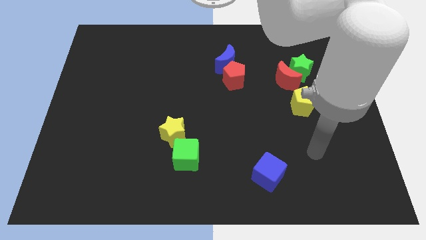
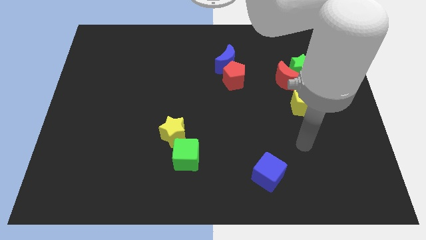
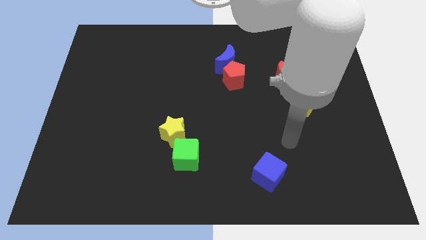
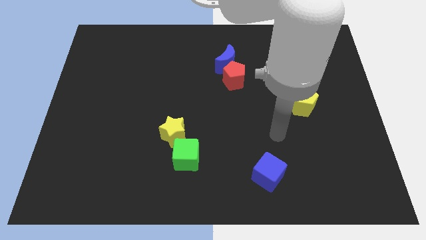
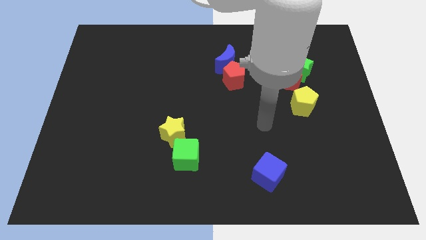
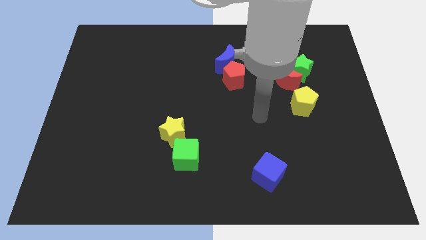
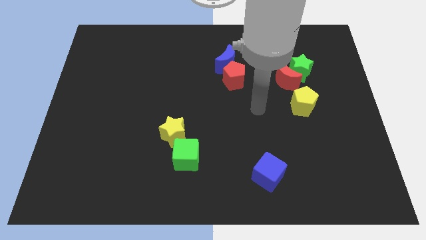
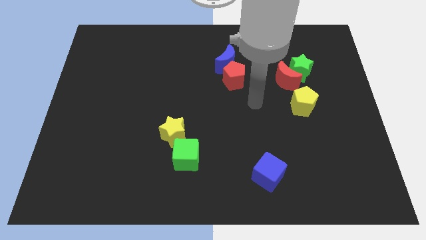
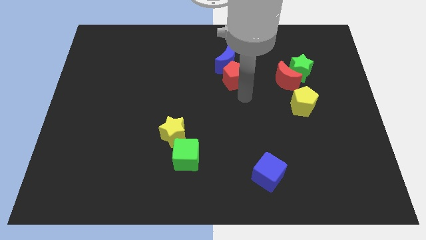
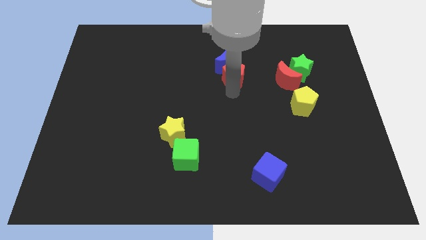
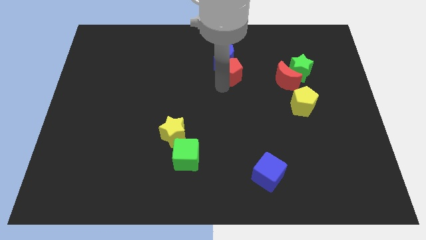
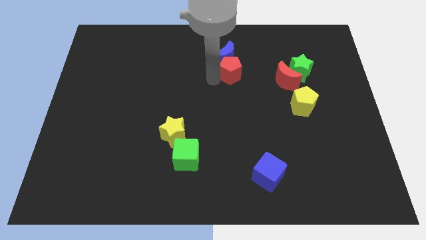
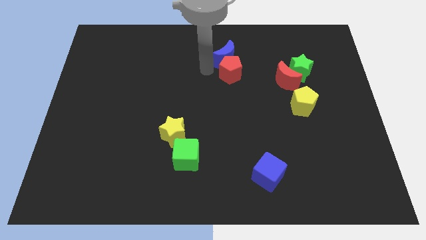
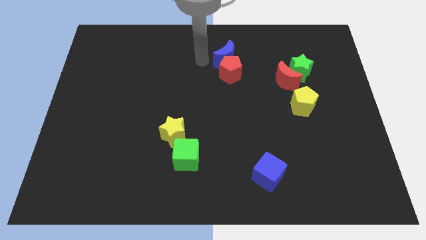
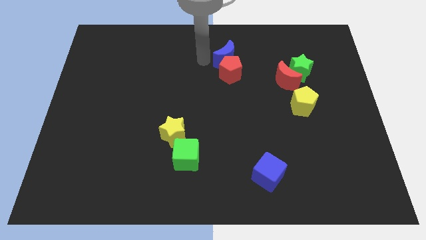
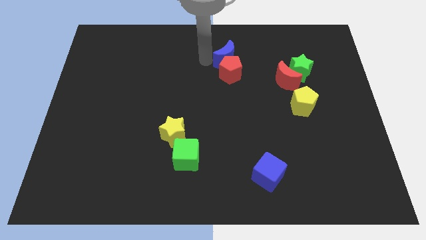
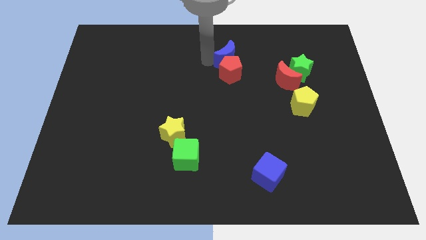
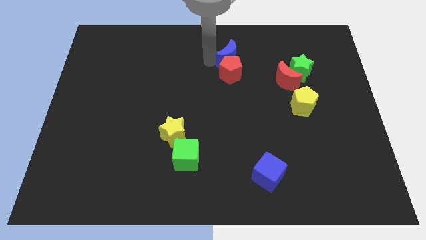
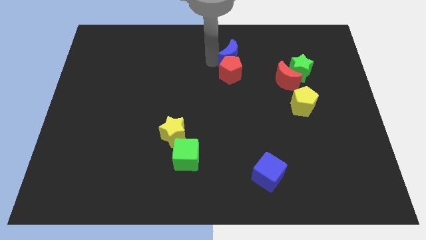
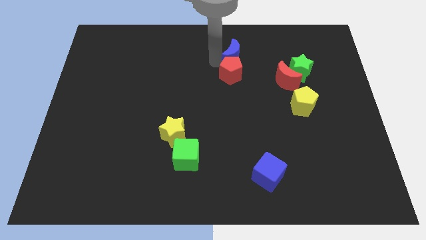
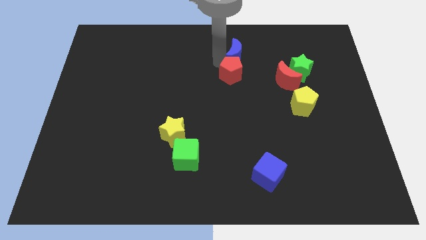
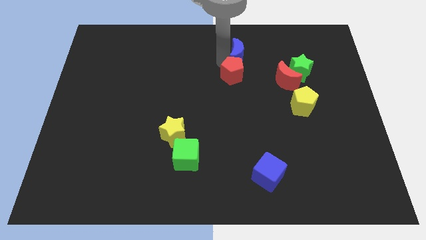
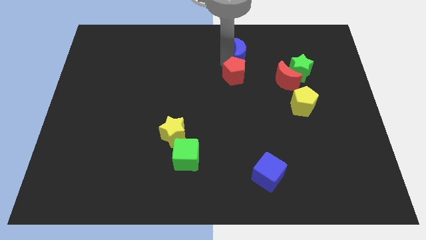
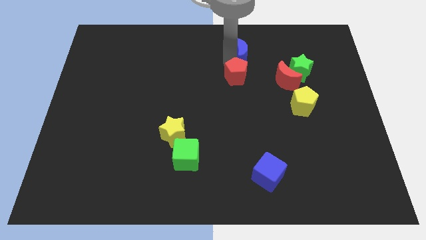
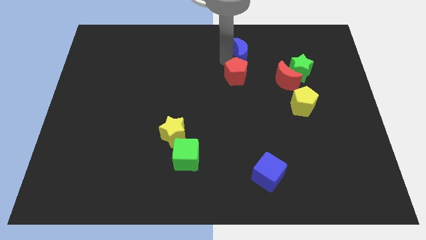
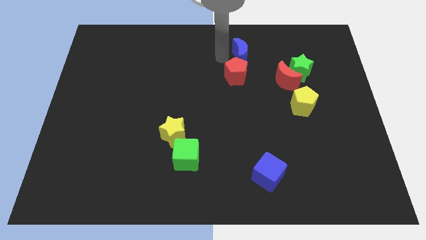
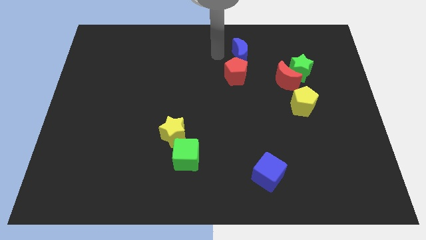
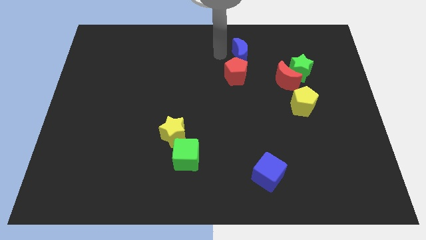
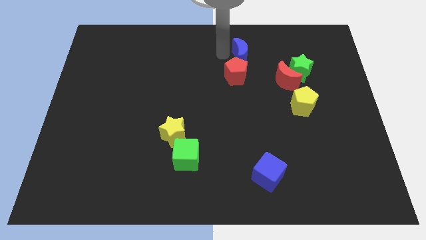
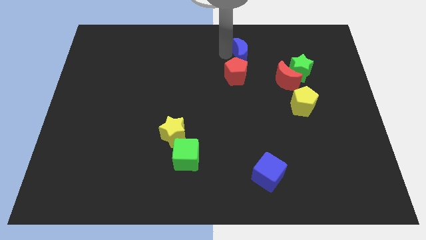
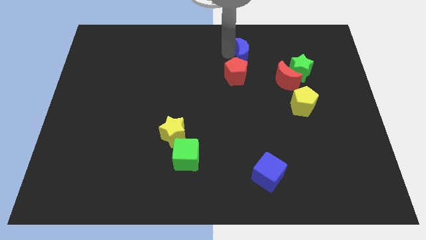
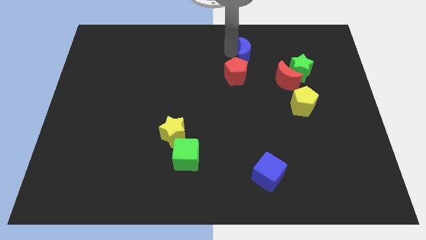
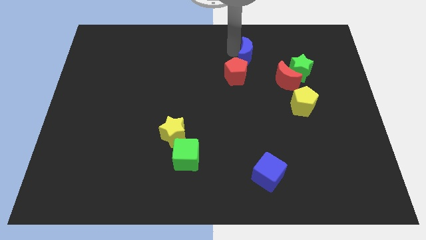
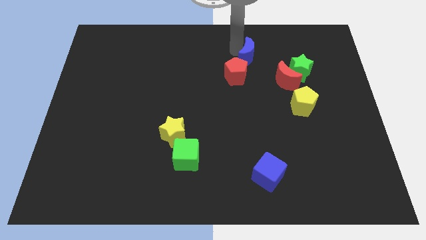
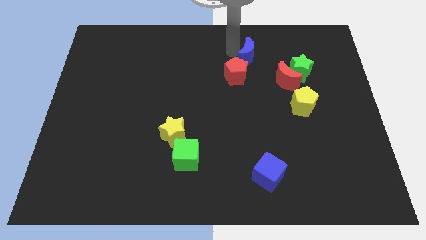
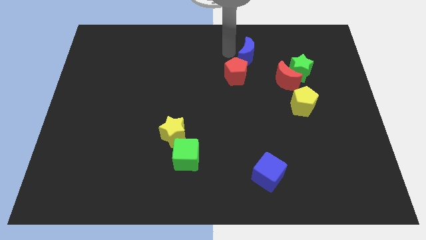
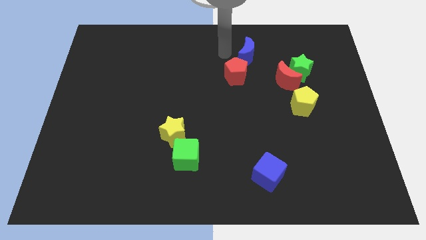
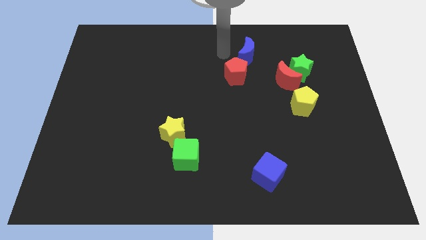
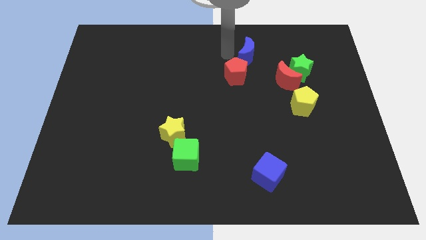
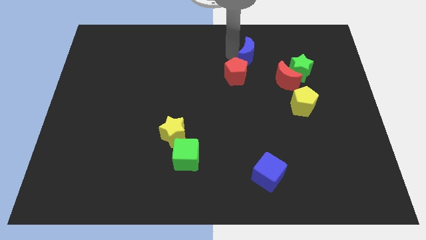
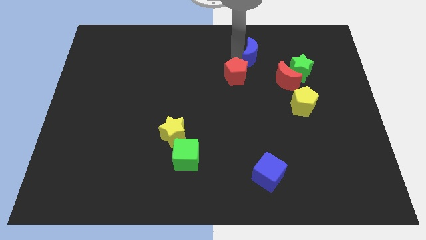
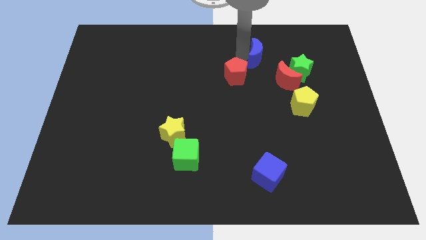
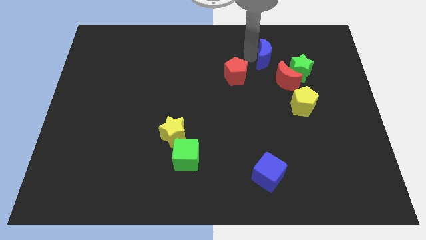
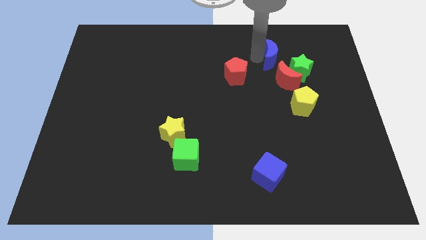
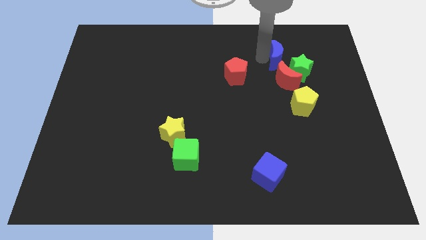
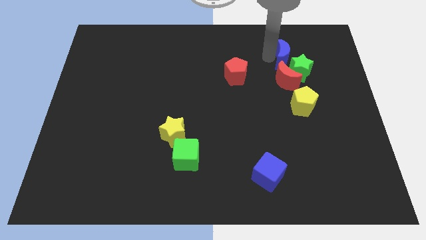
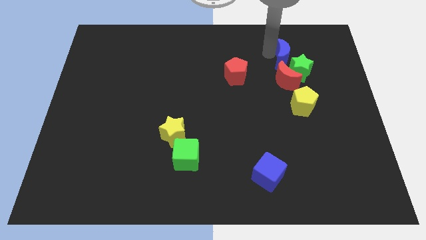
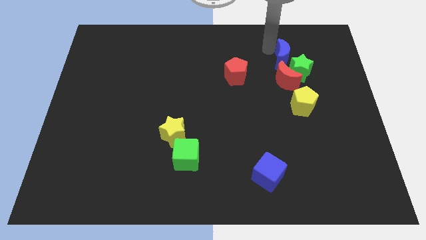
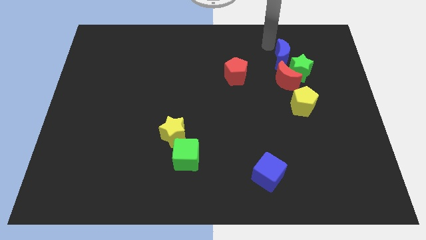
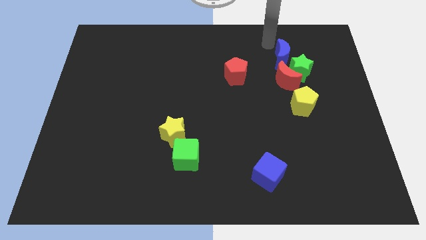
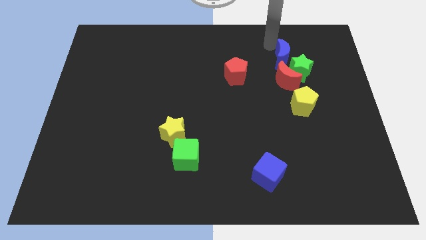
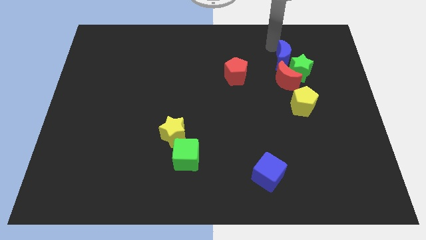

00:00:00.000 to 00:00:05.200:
put the blue moon above the yellow pentagon

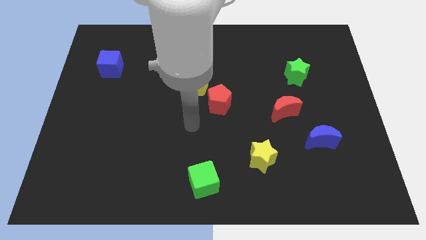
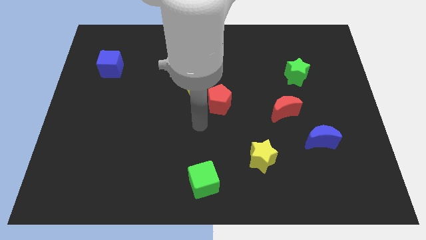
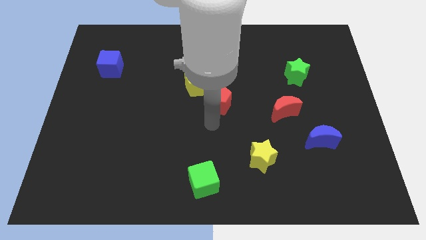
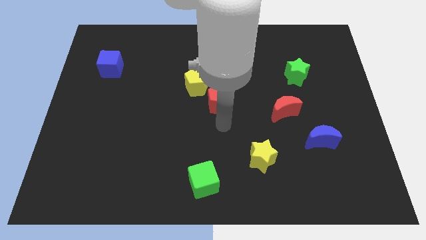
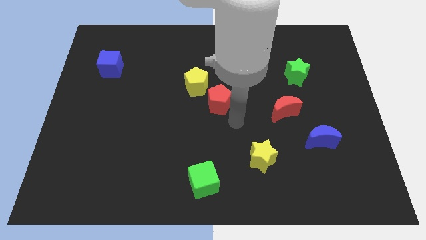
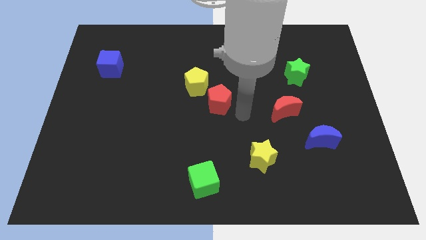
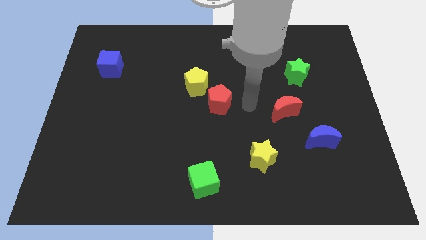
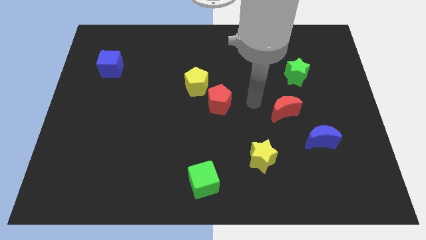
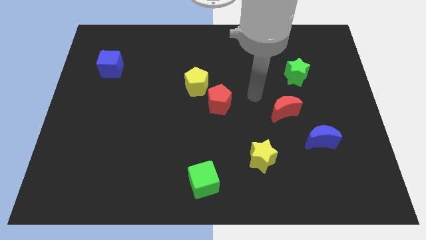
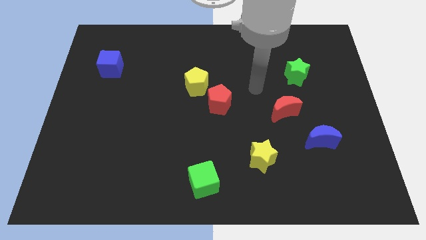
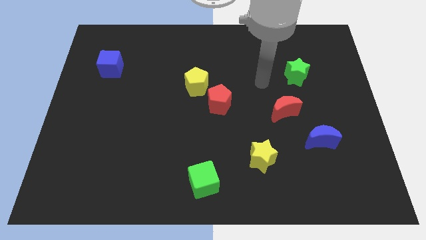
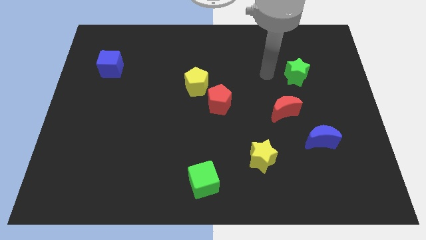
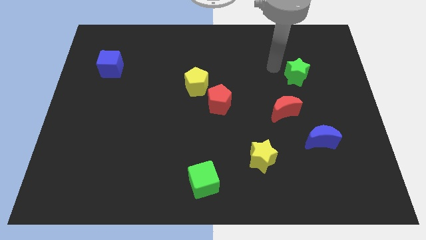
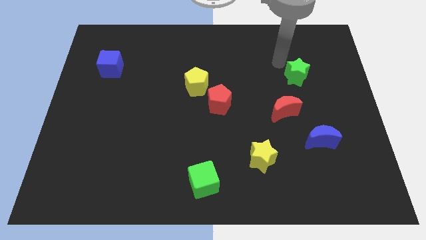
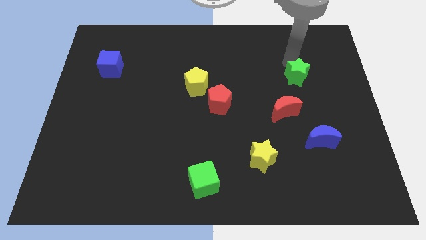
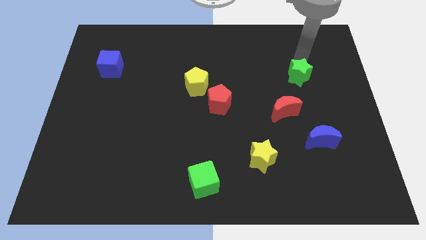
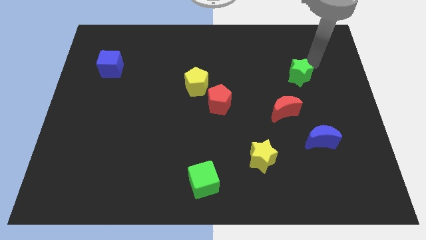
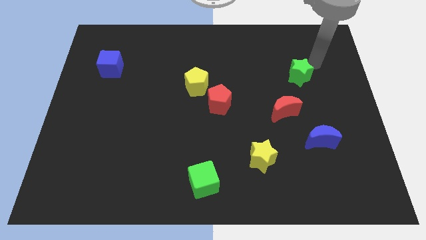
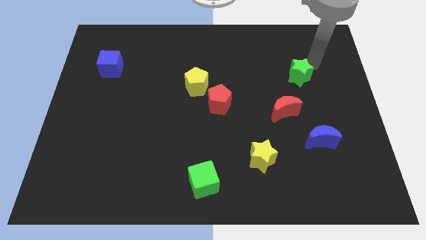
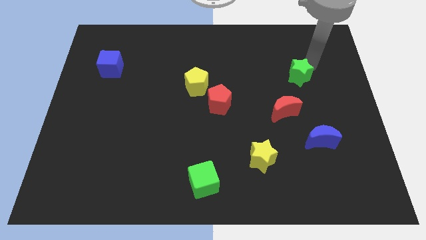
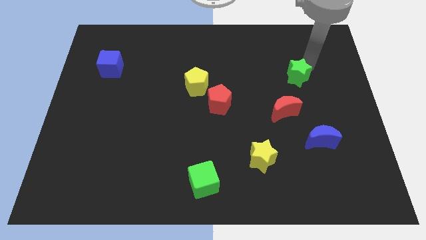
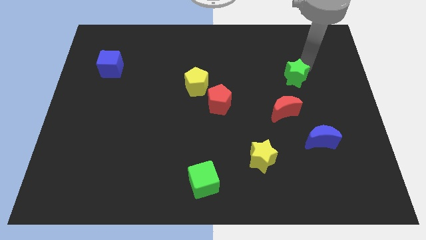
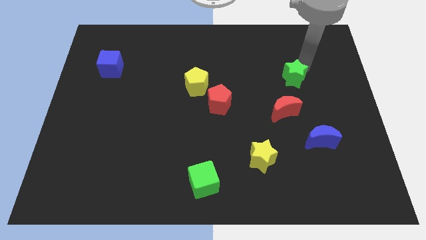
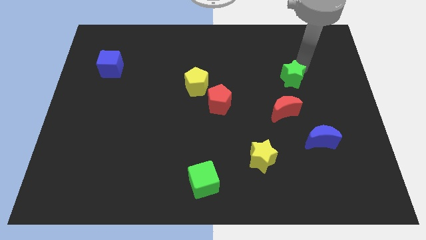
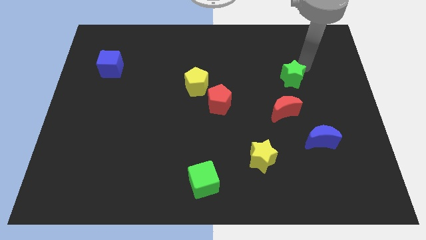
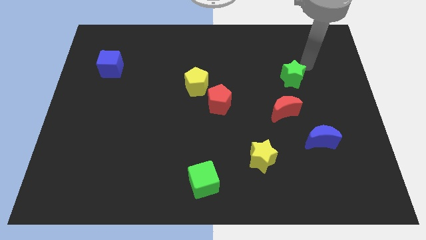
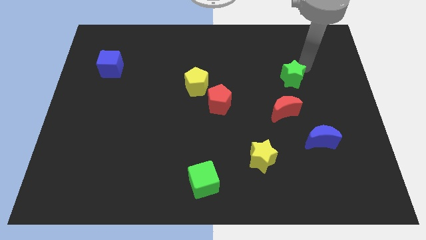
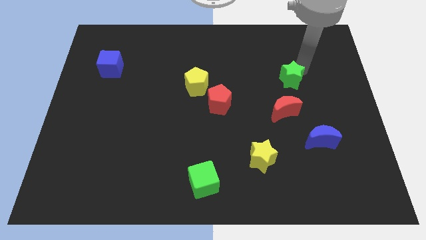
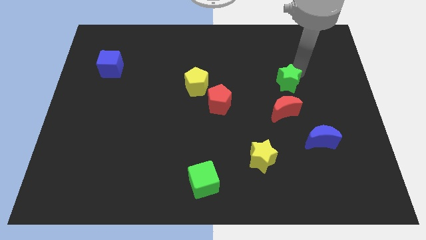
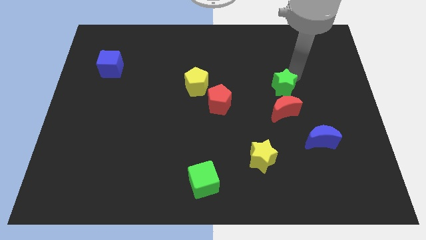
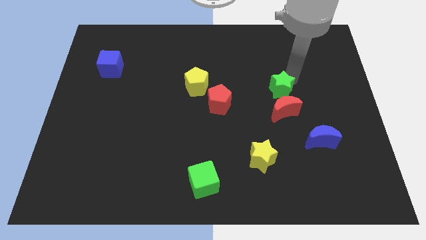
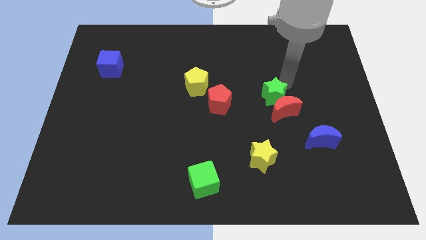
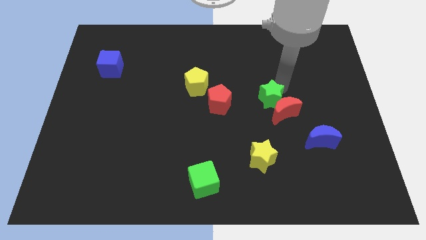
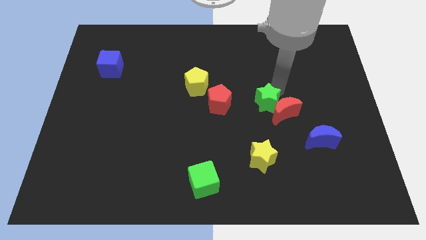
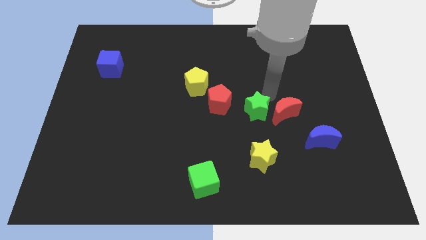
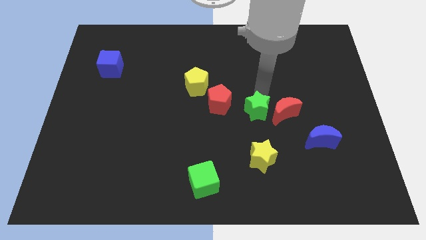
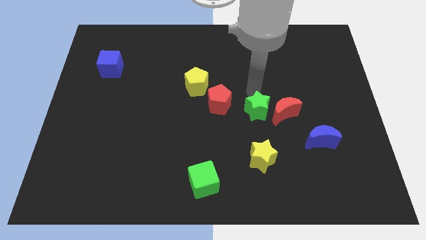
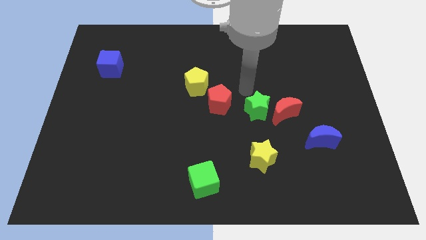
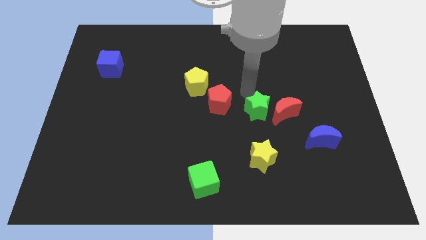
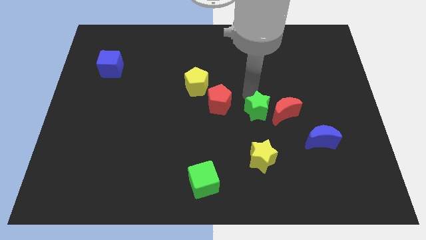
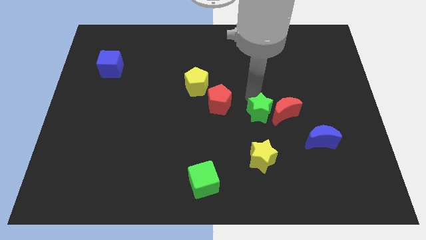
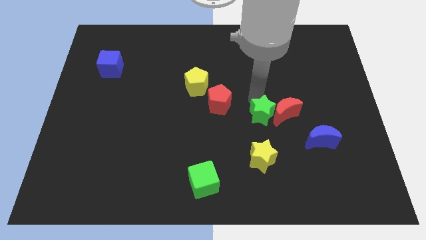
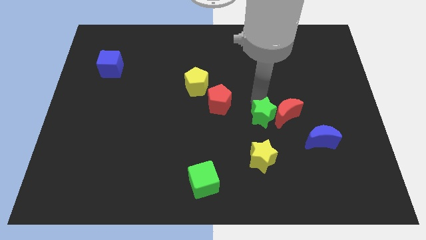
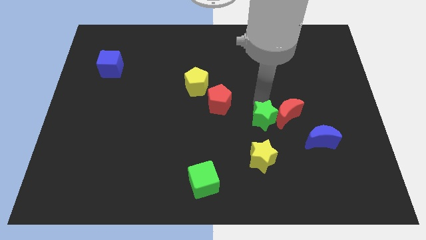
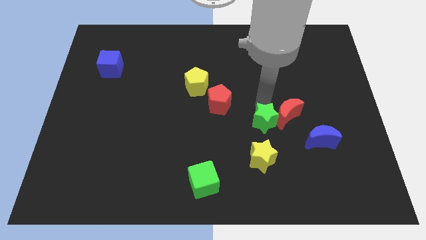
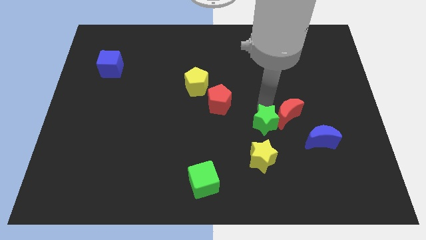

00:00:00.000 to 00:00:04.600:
put the green star left of the blue moon
